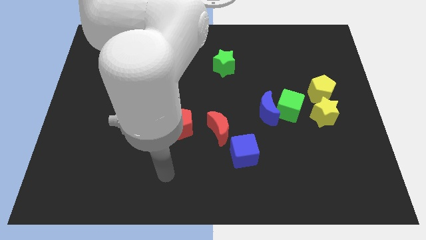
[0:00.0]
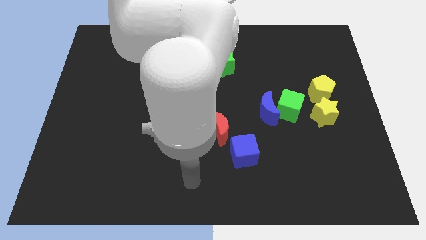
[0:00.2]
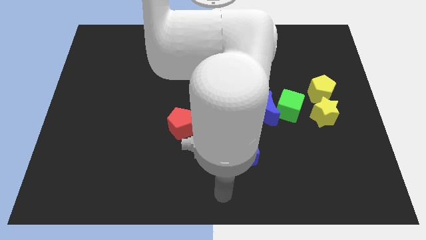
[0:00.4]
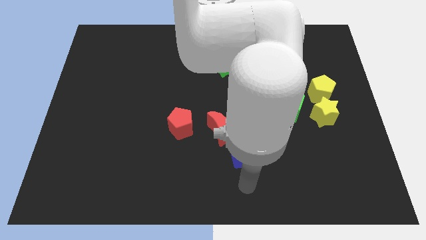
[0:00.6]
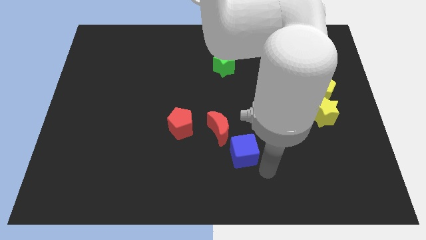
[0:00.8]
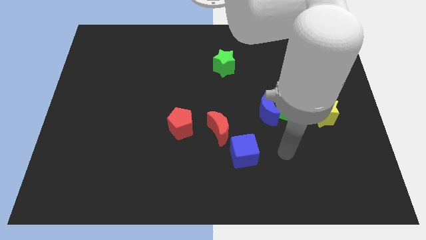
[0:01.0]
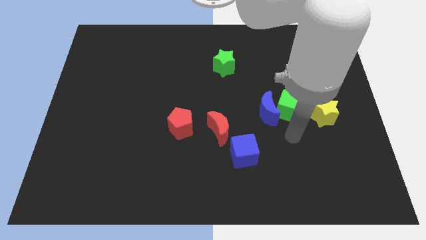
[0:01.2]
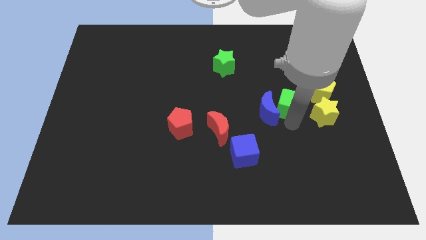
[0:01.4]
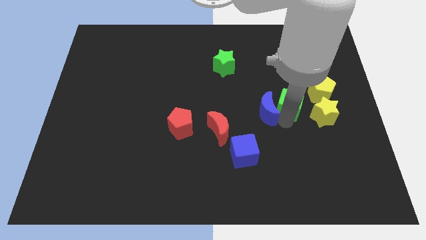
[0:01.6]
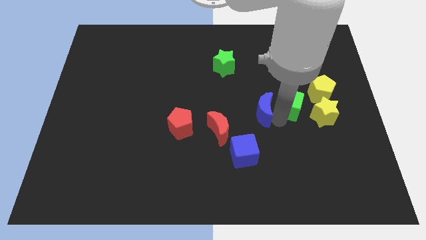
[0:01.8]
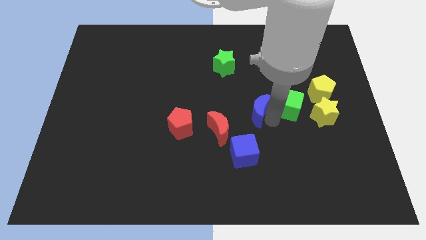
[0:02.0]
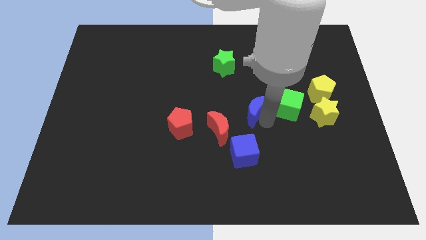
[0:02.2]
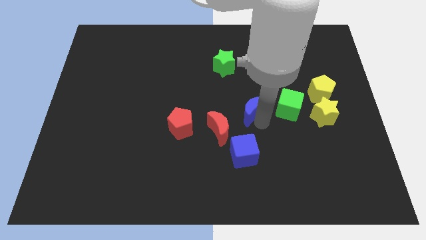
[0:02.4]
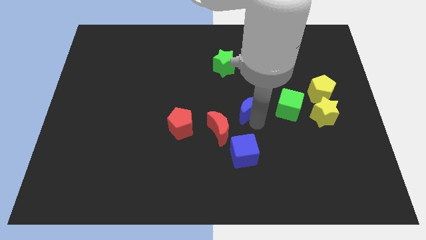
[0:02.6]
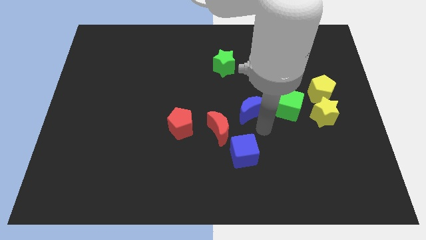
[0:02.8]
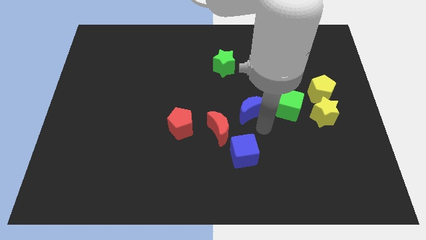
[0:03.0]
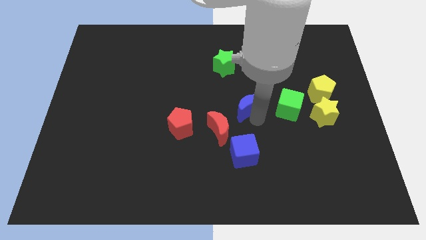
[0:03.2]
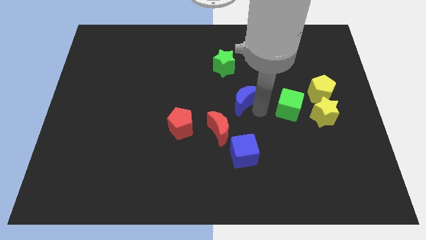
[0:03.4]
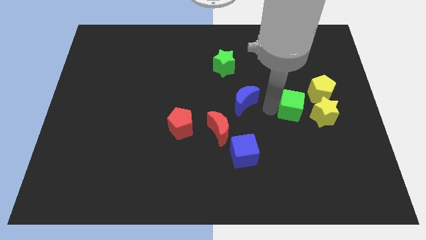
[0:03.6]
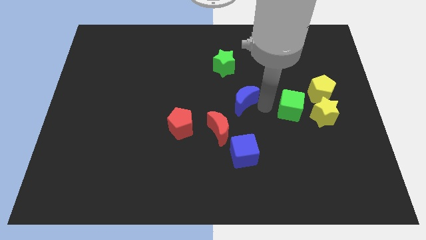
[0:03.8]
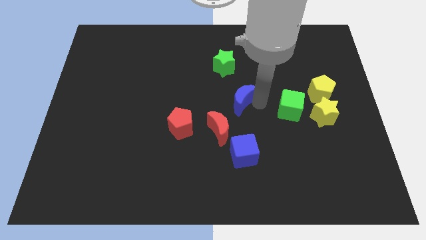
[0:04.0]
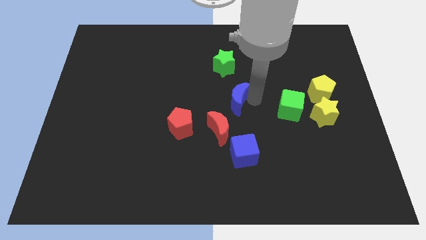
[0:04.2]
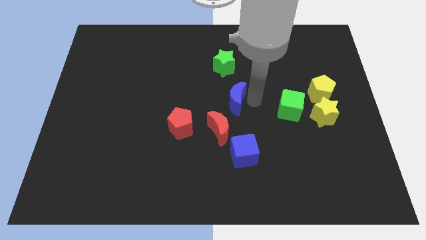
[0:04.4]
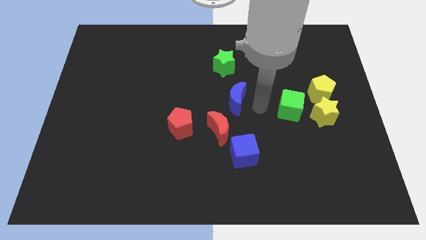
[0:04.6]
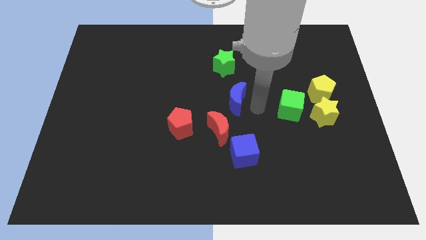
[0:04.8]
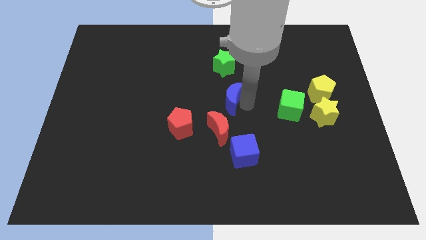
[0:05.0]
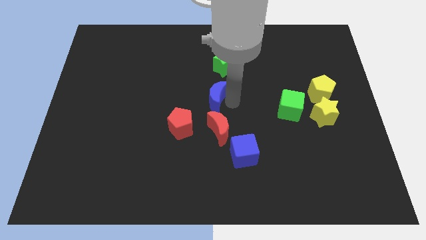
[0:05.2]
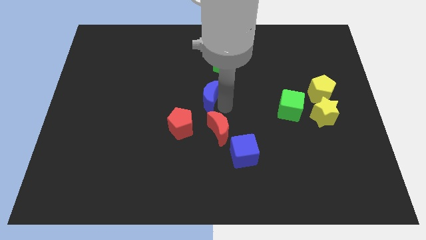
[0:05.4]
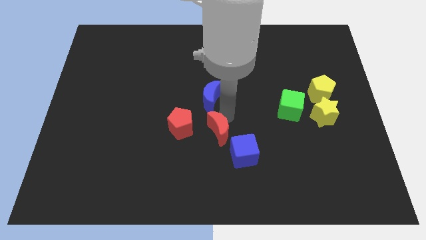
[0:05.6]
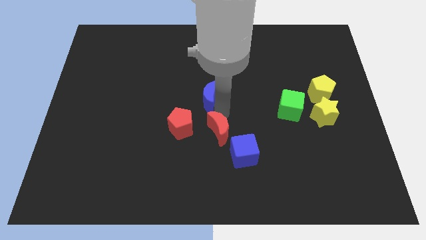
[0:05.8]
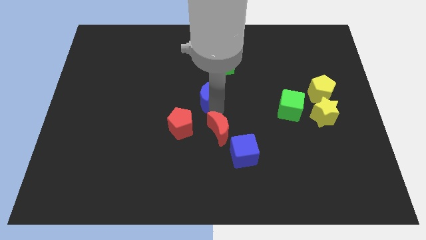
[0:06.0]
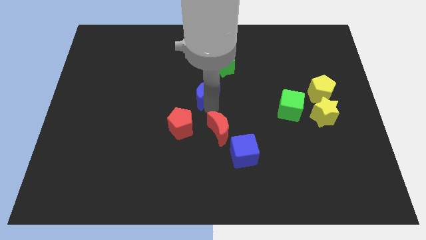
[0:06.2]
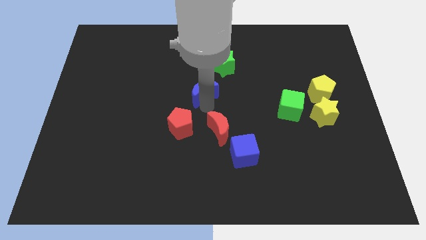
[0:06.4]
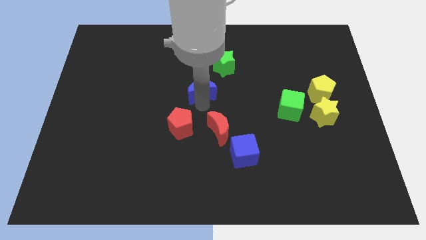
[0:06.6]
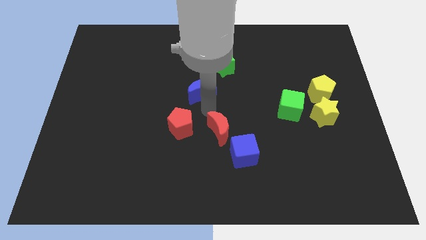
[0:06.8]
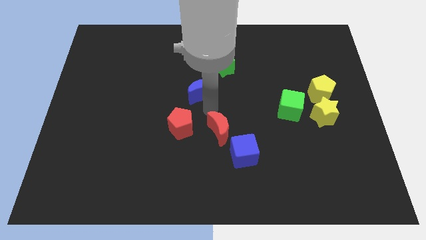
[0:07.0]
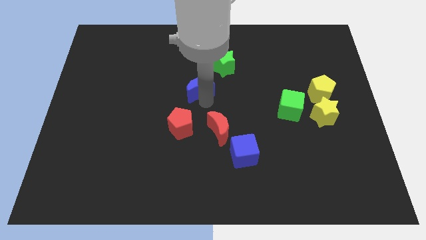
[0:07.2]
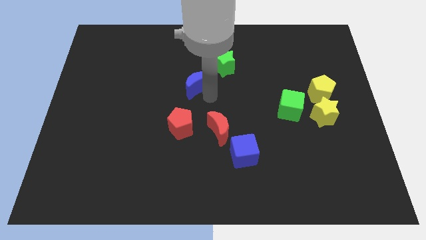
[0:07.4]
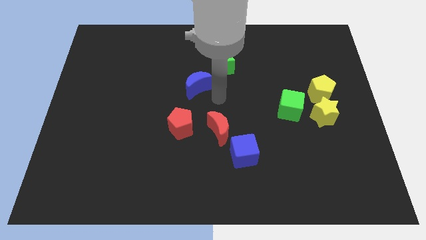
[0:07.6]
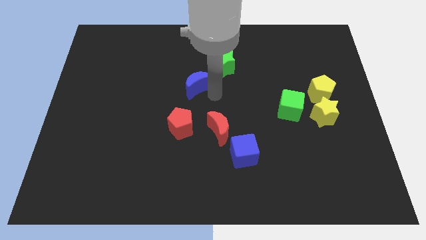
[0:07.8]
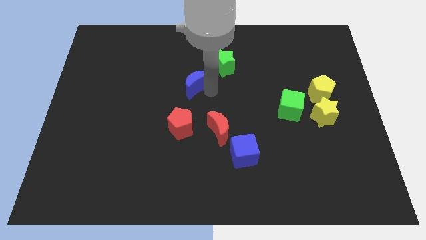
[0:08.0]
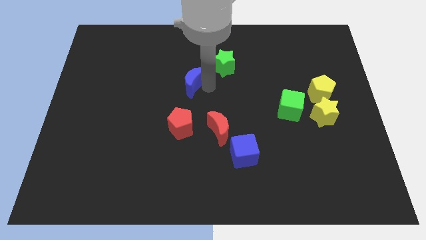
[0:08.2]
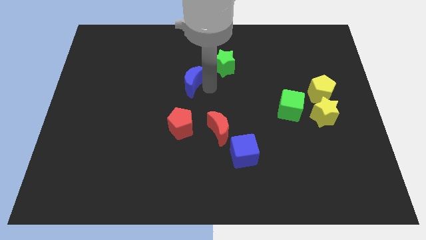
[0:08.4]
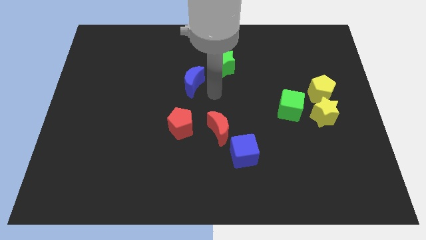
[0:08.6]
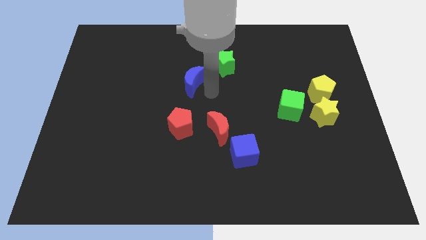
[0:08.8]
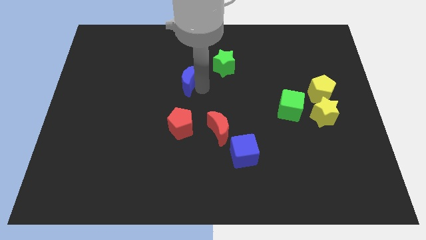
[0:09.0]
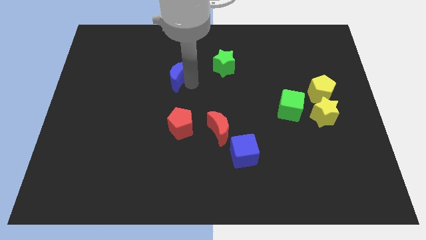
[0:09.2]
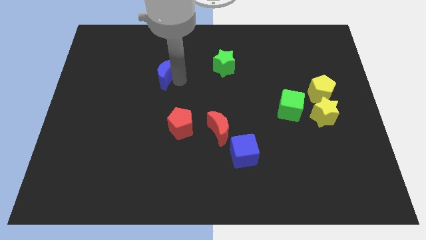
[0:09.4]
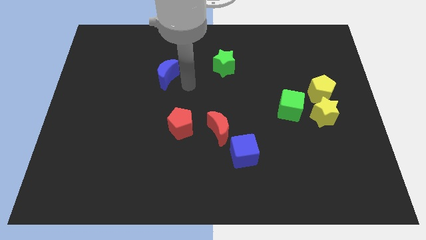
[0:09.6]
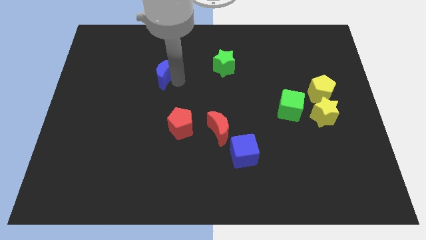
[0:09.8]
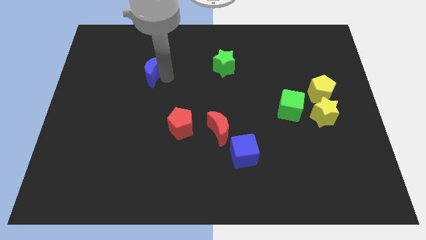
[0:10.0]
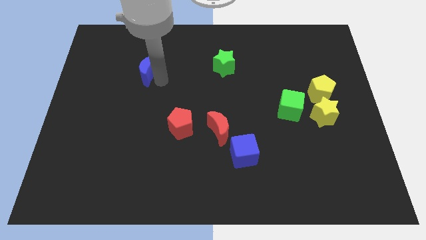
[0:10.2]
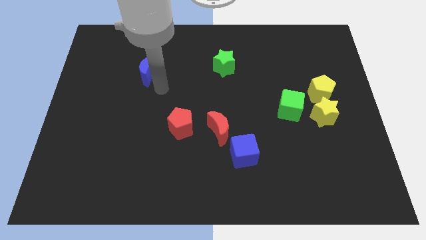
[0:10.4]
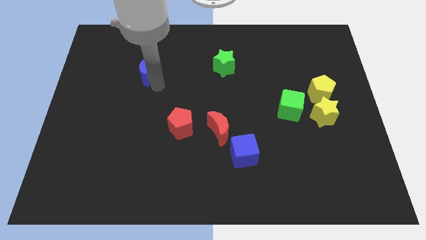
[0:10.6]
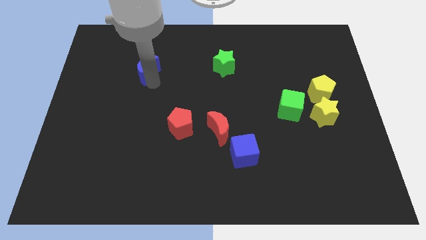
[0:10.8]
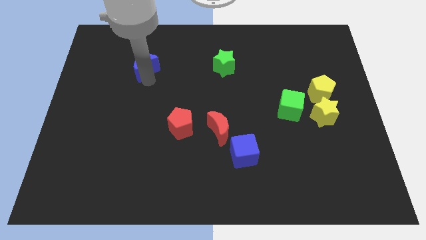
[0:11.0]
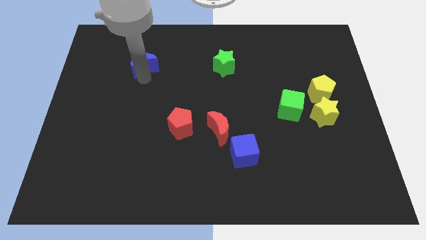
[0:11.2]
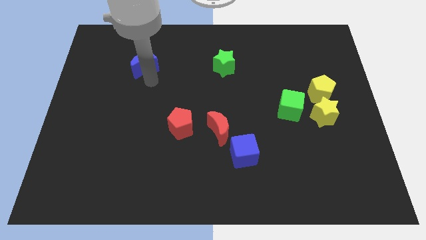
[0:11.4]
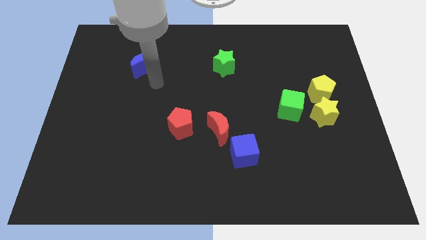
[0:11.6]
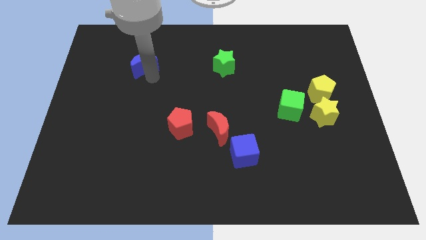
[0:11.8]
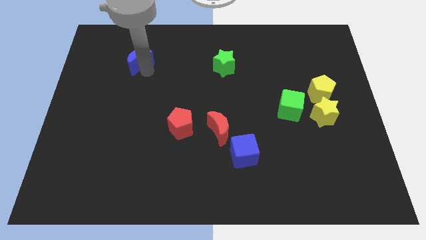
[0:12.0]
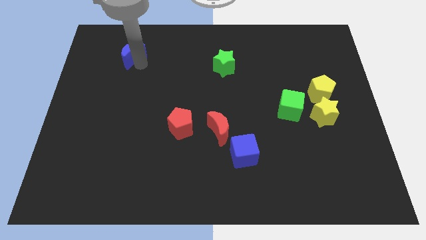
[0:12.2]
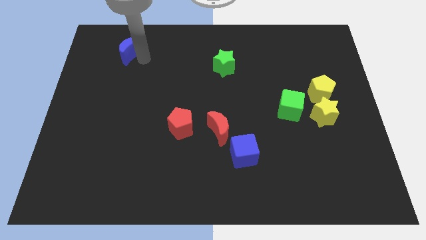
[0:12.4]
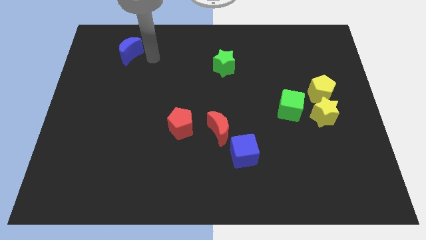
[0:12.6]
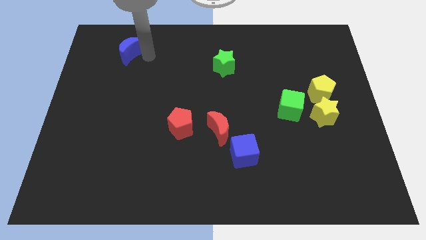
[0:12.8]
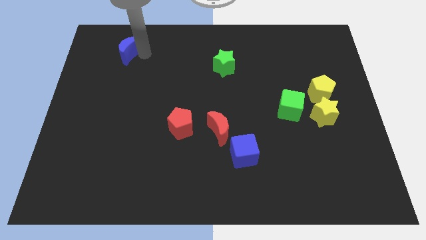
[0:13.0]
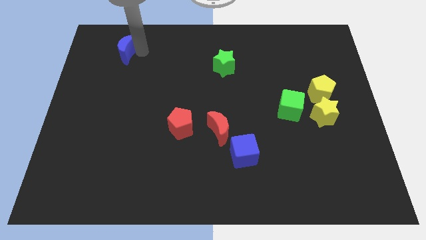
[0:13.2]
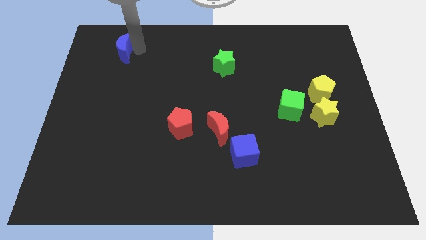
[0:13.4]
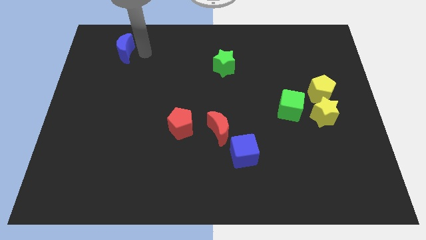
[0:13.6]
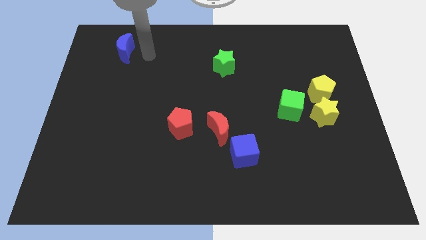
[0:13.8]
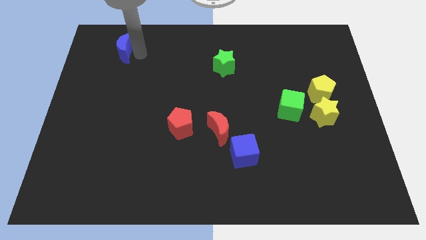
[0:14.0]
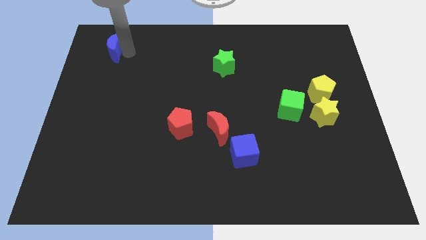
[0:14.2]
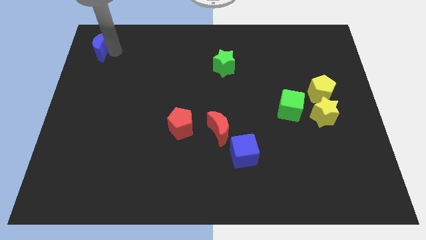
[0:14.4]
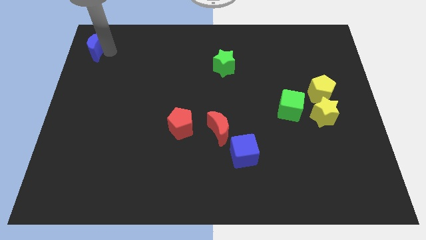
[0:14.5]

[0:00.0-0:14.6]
push the blue moon to the top left
